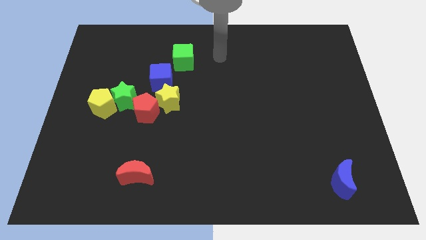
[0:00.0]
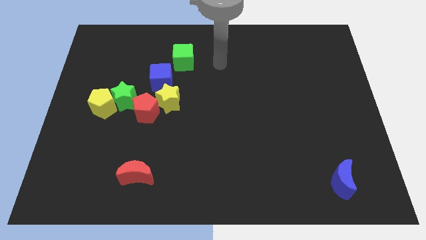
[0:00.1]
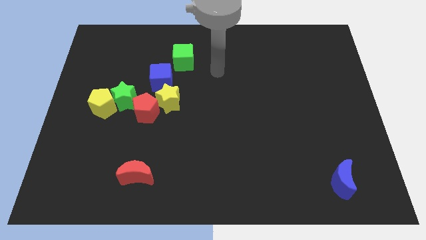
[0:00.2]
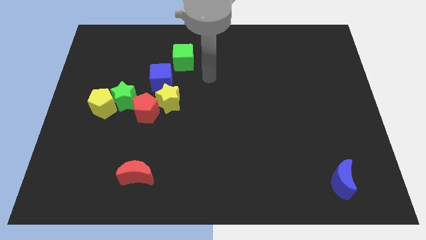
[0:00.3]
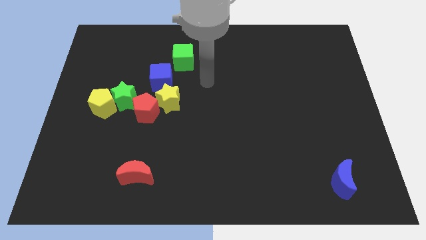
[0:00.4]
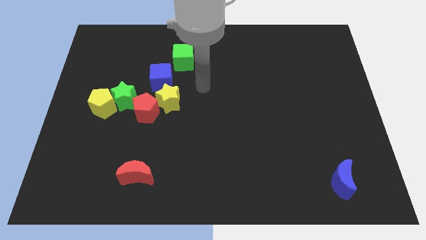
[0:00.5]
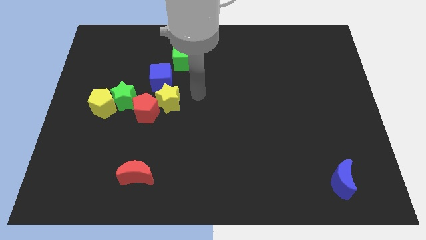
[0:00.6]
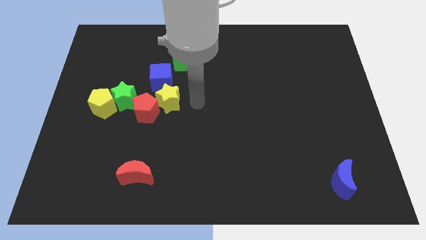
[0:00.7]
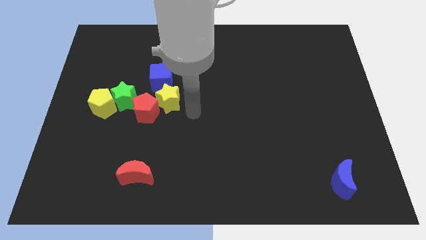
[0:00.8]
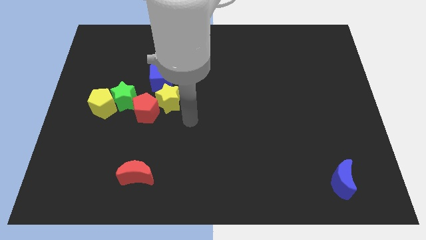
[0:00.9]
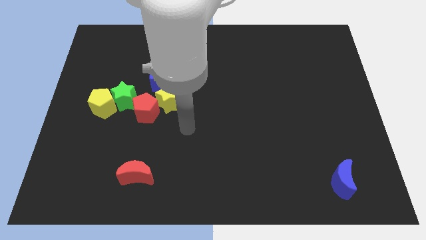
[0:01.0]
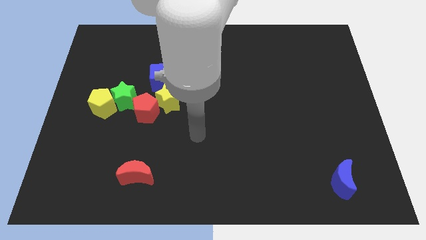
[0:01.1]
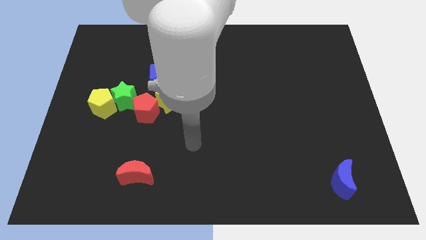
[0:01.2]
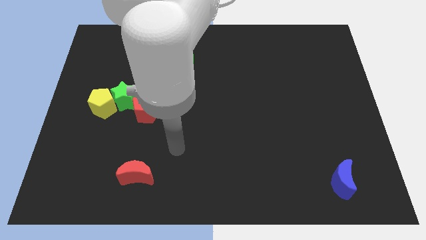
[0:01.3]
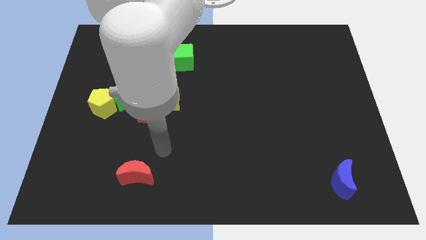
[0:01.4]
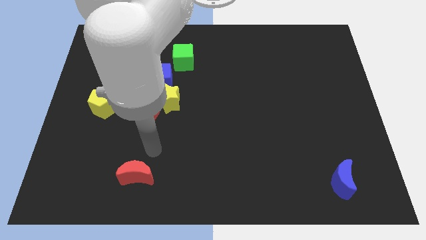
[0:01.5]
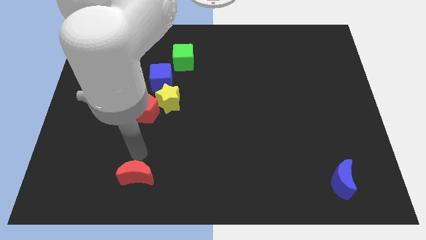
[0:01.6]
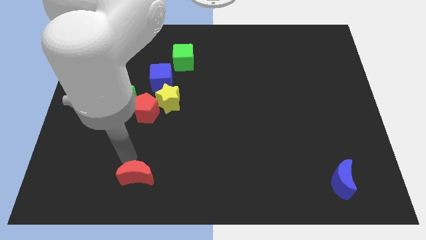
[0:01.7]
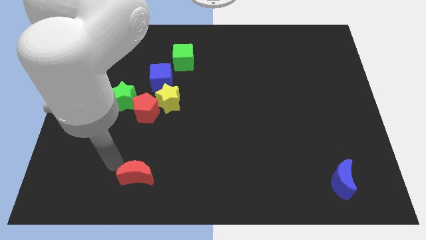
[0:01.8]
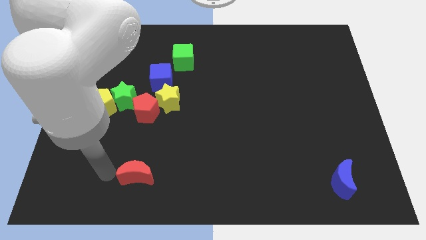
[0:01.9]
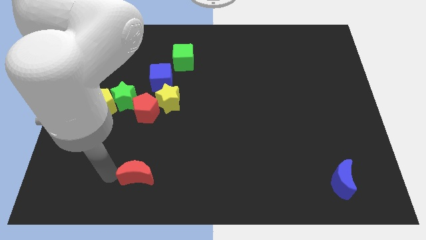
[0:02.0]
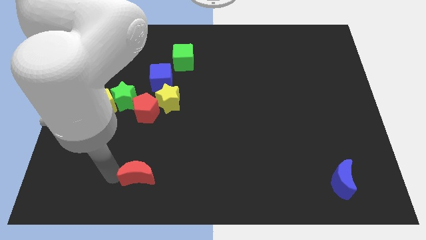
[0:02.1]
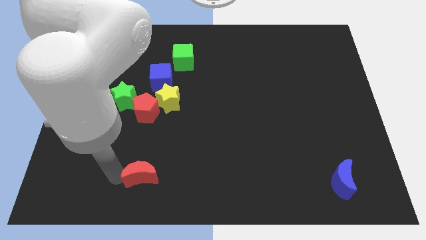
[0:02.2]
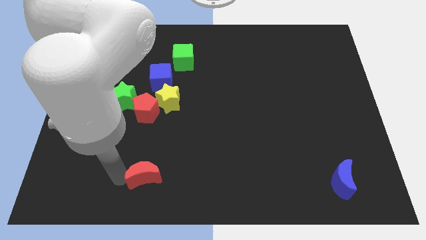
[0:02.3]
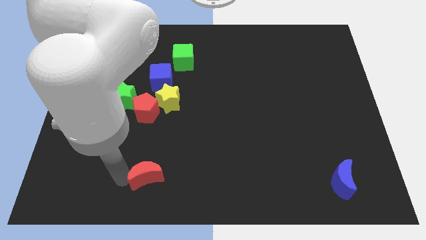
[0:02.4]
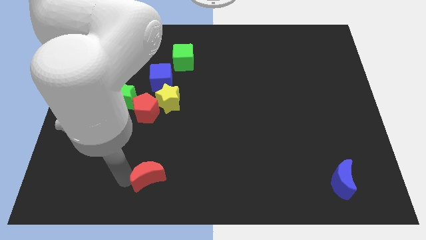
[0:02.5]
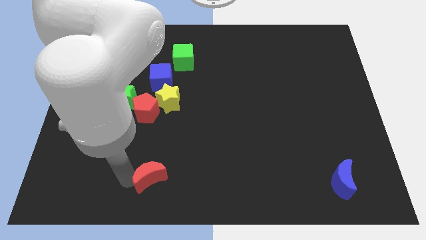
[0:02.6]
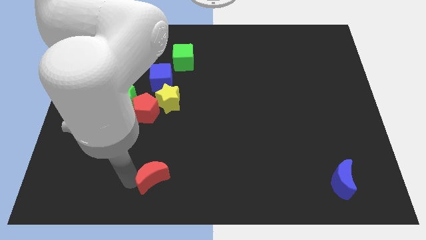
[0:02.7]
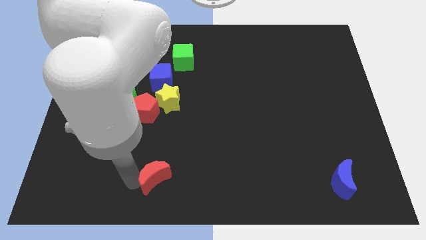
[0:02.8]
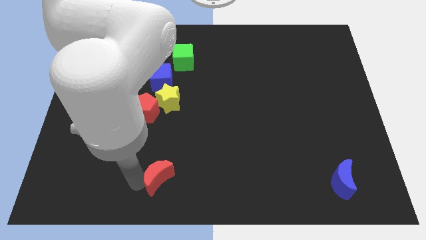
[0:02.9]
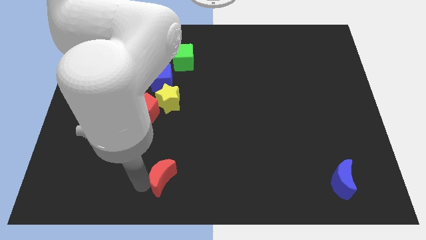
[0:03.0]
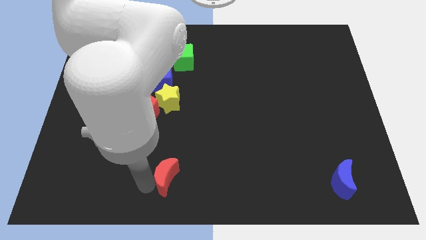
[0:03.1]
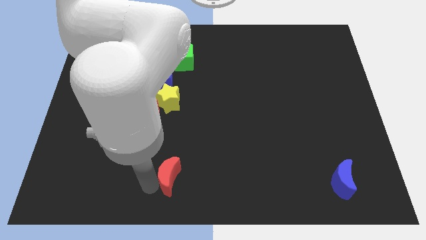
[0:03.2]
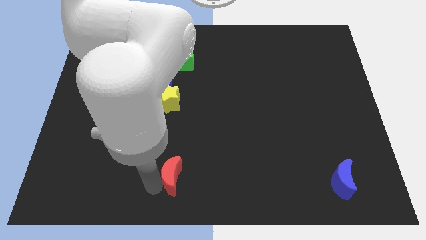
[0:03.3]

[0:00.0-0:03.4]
move the red moon a little bit to the right

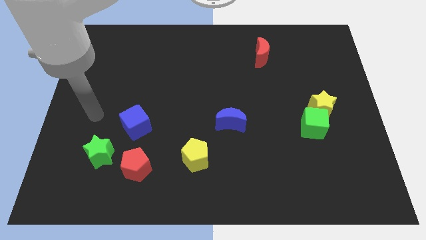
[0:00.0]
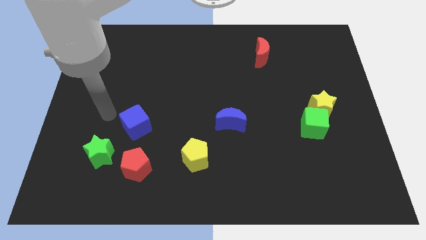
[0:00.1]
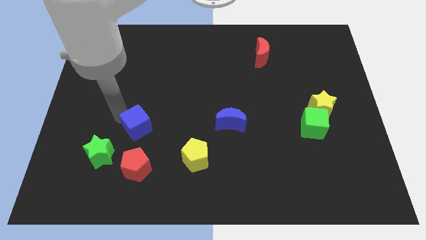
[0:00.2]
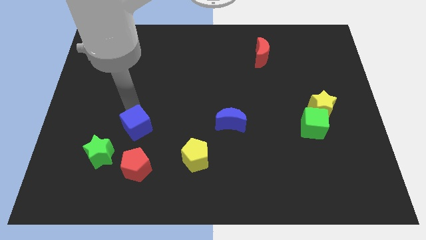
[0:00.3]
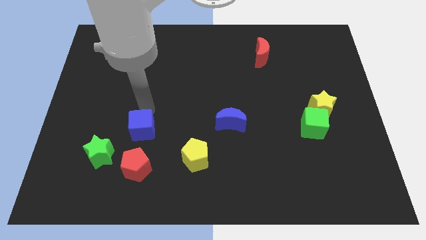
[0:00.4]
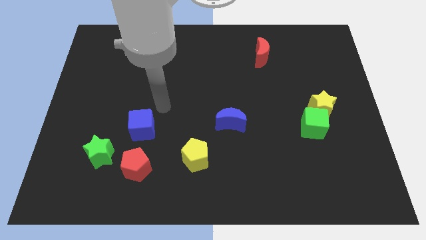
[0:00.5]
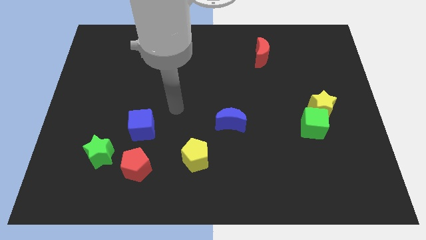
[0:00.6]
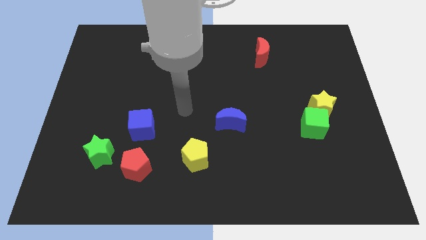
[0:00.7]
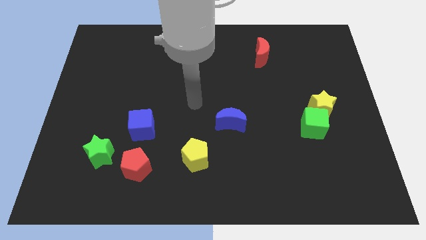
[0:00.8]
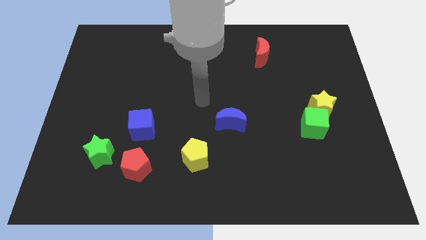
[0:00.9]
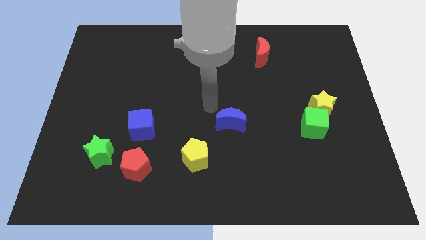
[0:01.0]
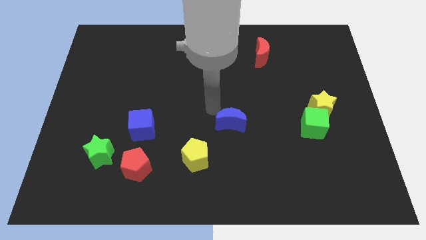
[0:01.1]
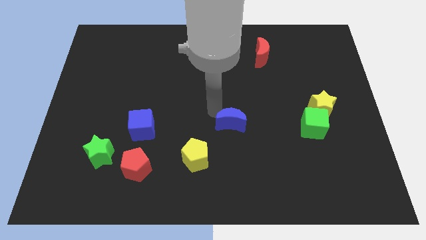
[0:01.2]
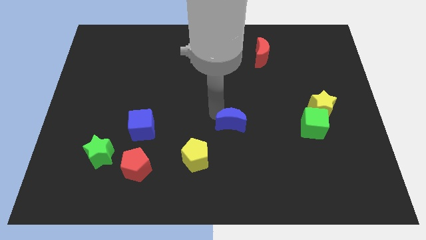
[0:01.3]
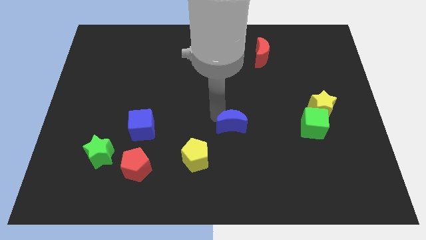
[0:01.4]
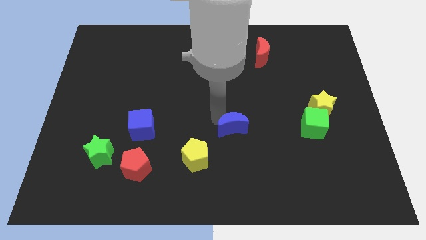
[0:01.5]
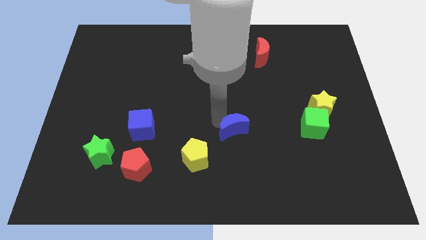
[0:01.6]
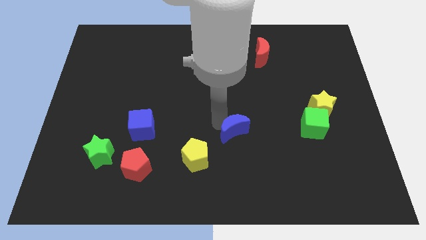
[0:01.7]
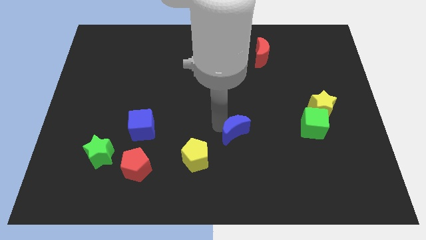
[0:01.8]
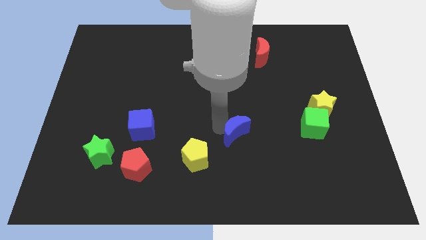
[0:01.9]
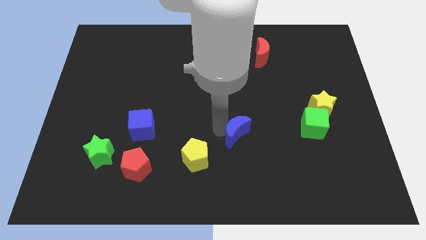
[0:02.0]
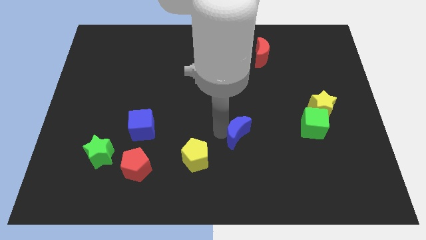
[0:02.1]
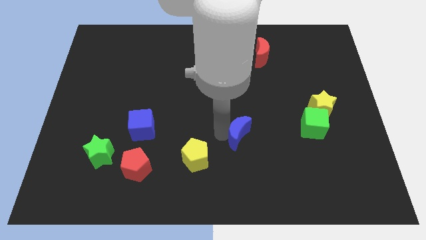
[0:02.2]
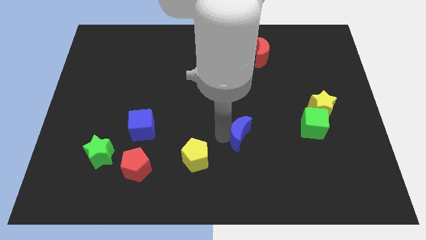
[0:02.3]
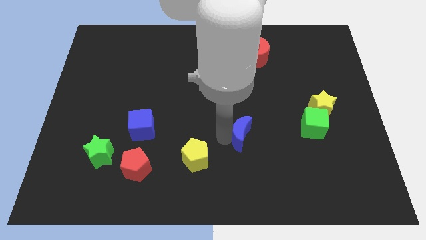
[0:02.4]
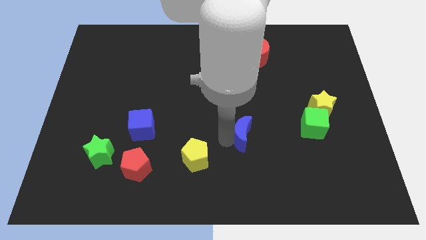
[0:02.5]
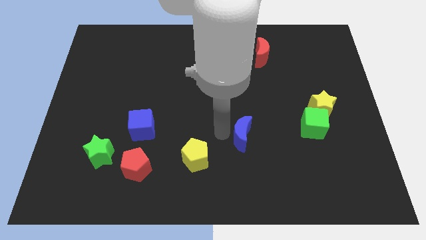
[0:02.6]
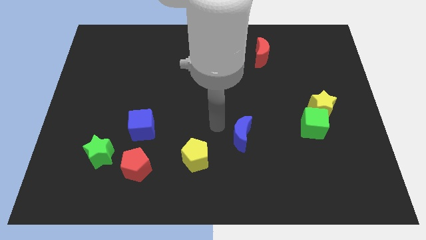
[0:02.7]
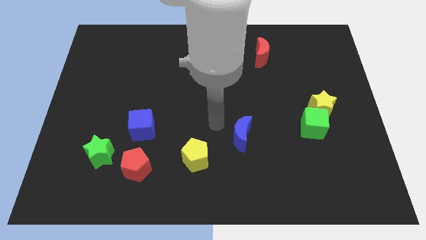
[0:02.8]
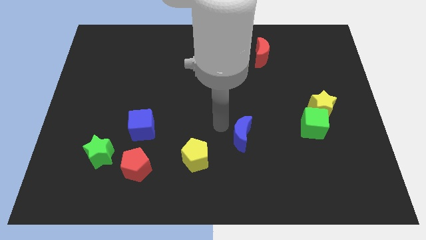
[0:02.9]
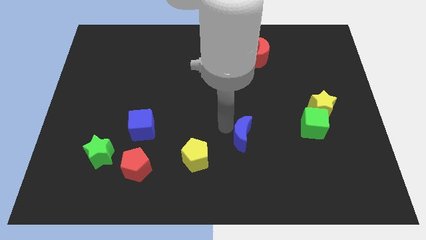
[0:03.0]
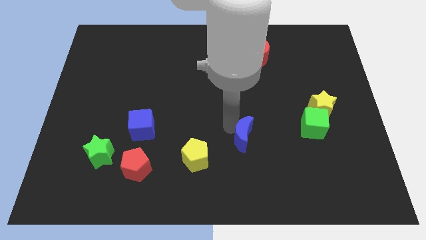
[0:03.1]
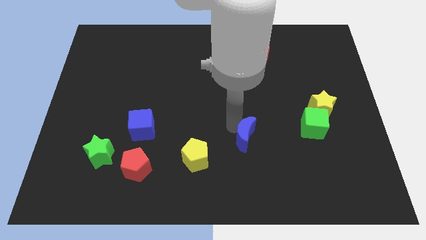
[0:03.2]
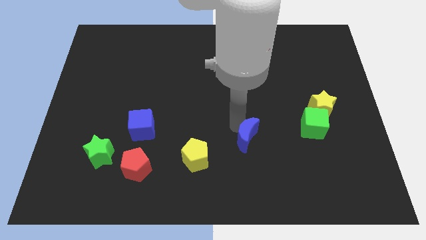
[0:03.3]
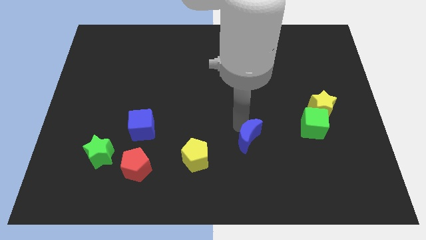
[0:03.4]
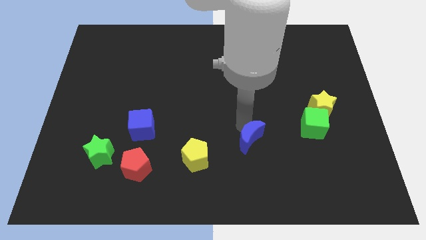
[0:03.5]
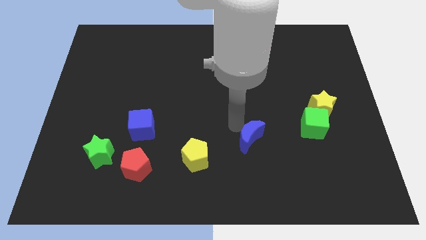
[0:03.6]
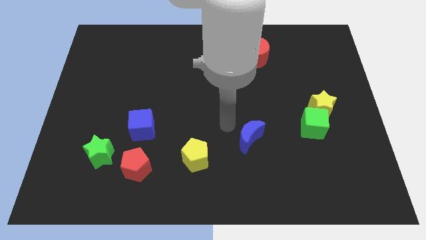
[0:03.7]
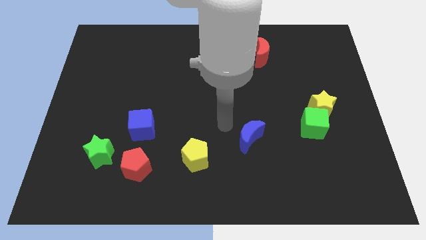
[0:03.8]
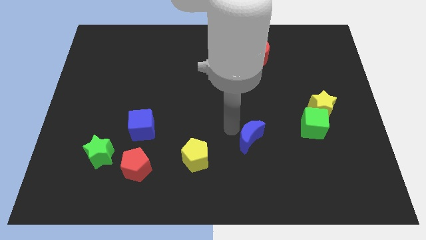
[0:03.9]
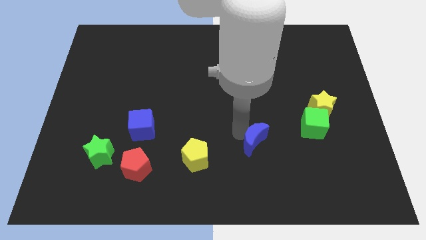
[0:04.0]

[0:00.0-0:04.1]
slightly move the blue moon down and to the right diagonally

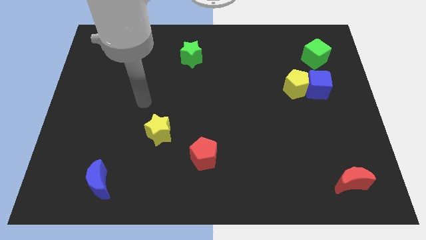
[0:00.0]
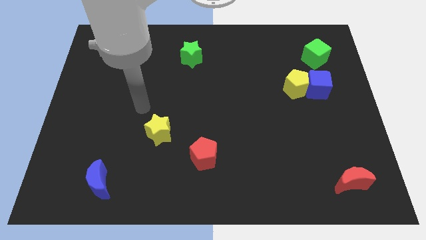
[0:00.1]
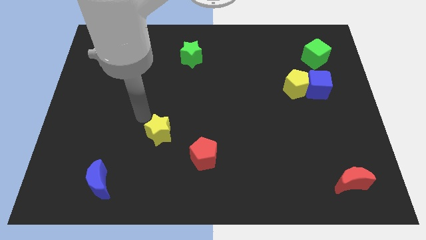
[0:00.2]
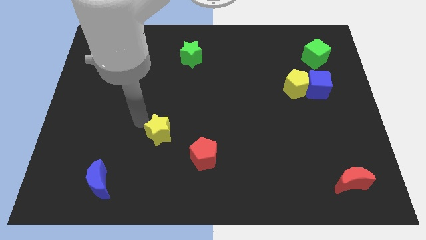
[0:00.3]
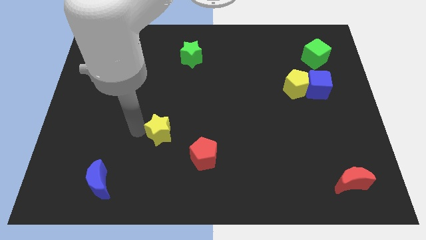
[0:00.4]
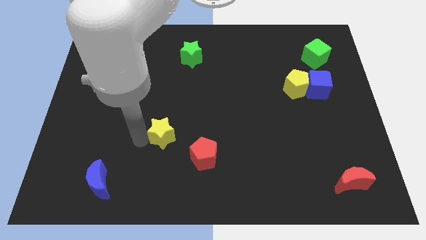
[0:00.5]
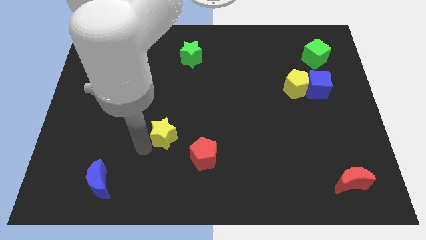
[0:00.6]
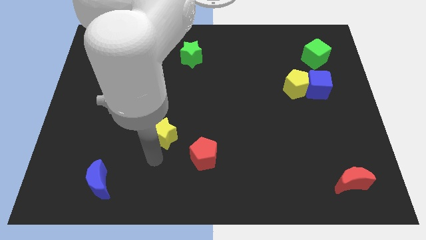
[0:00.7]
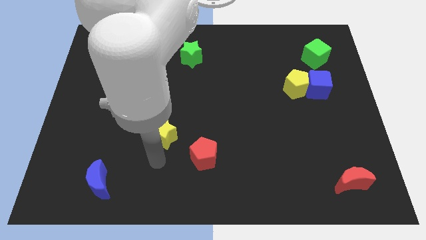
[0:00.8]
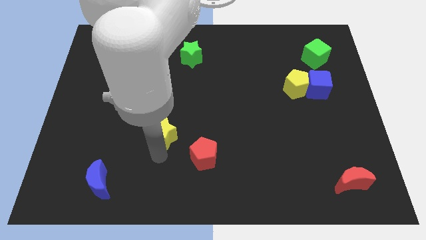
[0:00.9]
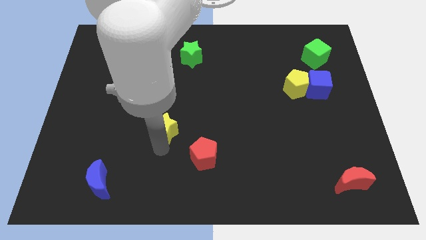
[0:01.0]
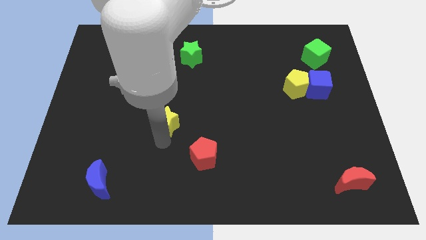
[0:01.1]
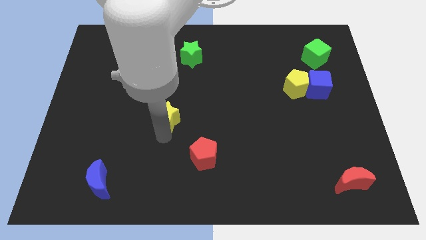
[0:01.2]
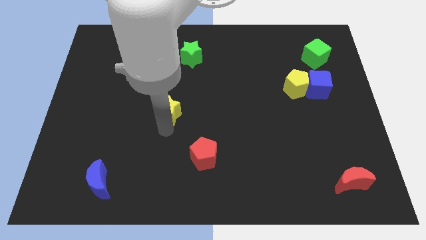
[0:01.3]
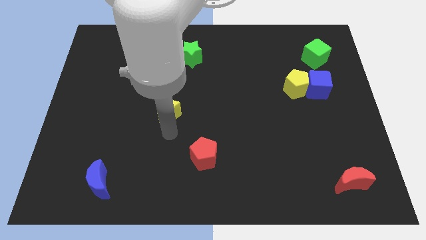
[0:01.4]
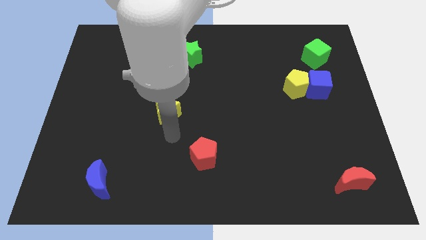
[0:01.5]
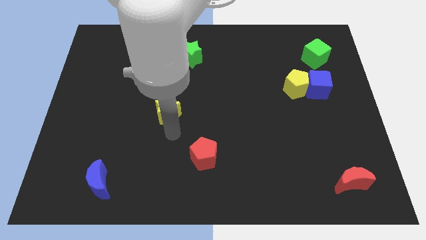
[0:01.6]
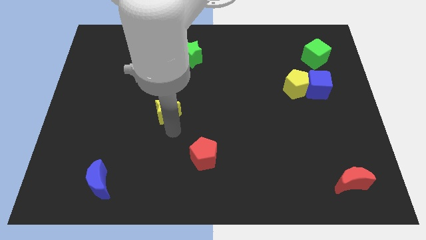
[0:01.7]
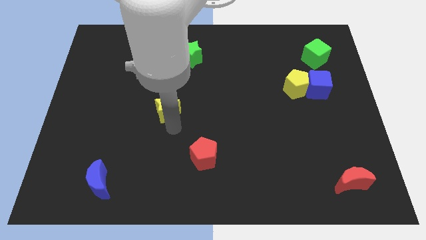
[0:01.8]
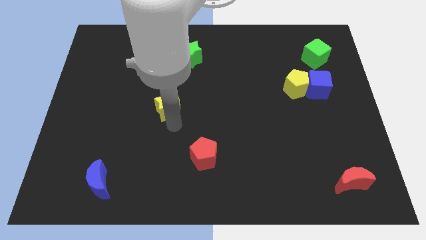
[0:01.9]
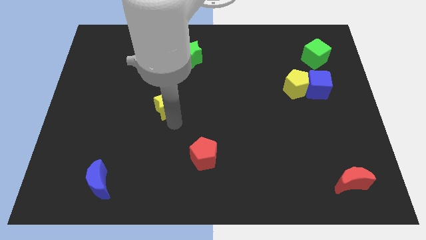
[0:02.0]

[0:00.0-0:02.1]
push the yellow star up a little
